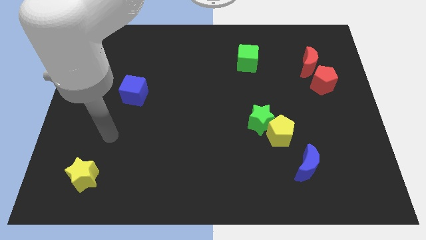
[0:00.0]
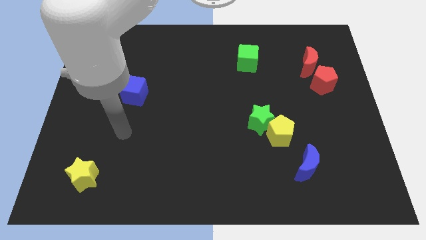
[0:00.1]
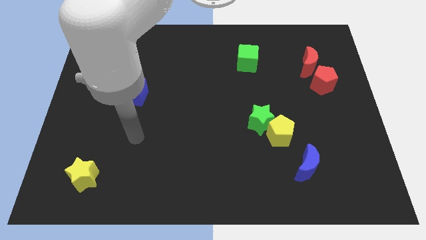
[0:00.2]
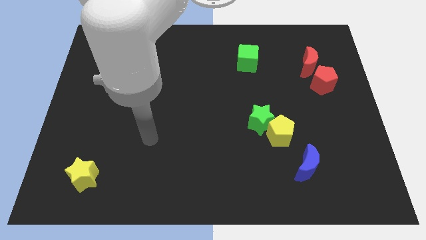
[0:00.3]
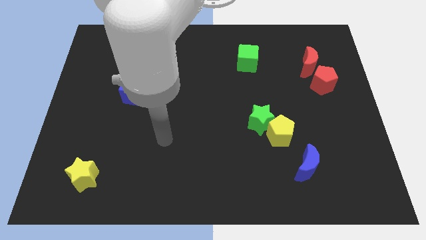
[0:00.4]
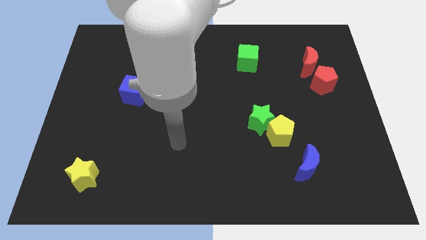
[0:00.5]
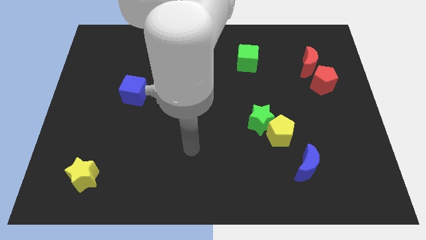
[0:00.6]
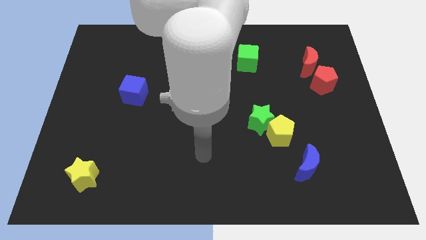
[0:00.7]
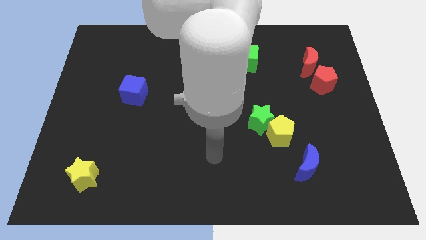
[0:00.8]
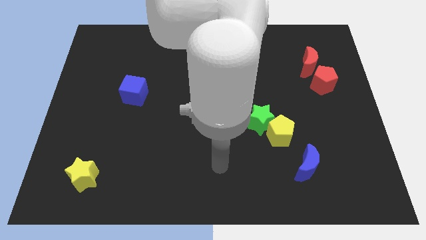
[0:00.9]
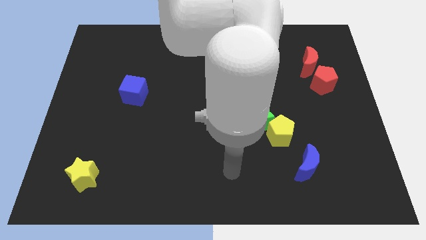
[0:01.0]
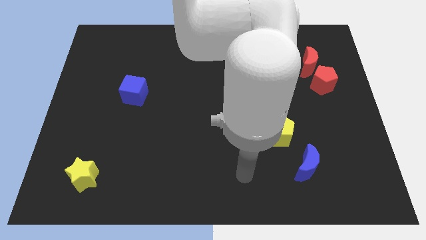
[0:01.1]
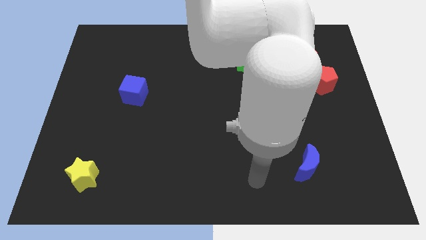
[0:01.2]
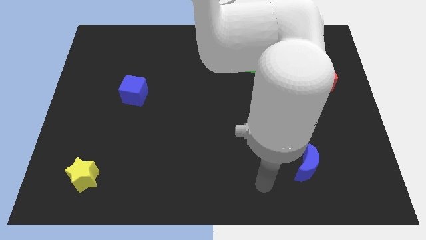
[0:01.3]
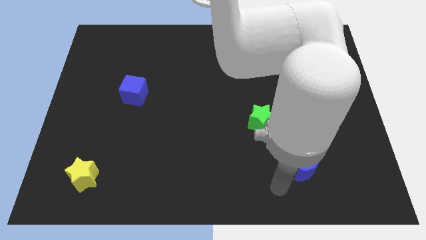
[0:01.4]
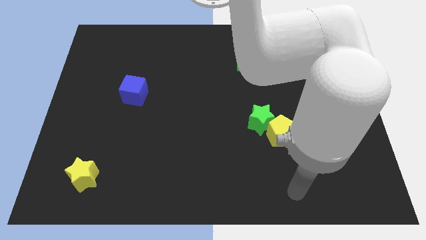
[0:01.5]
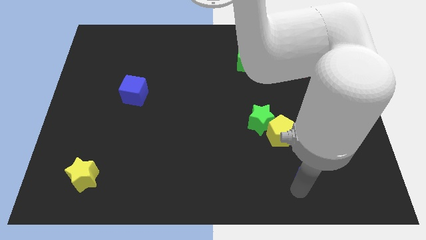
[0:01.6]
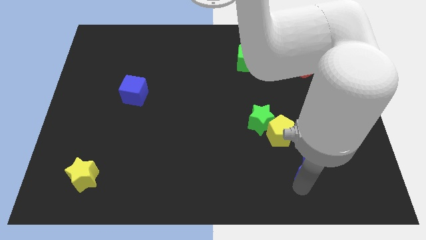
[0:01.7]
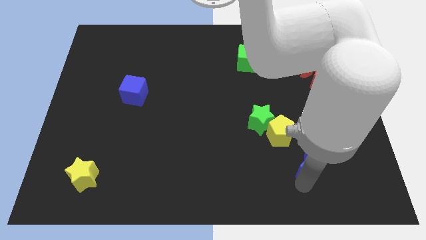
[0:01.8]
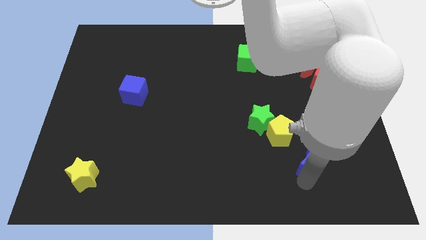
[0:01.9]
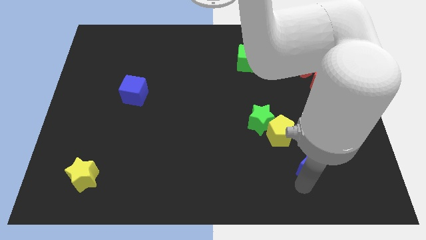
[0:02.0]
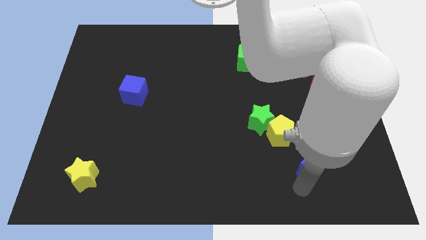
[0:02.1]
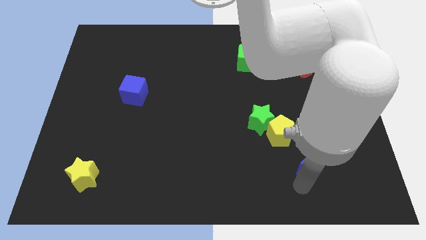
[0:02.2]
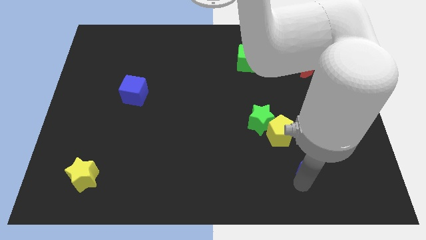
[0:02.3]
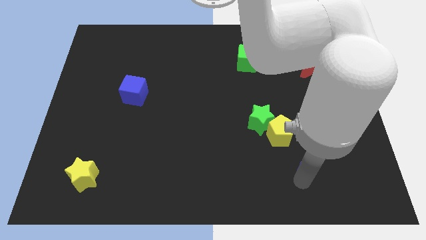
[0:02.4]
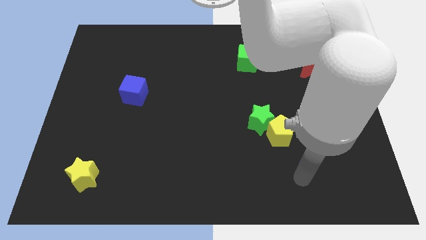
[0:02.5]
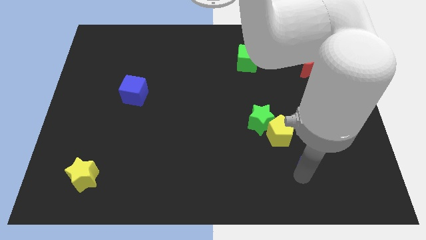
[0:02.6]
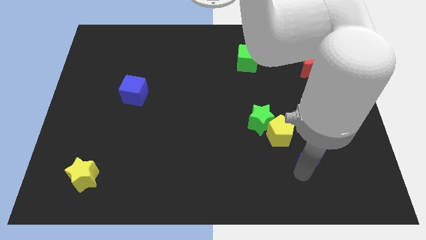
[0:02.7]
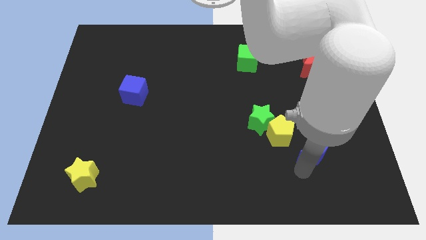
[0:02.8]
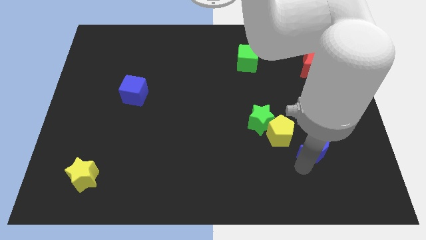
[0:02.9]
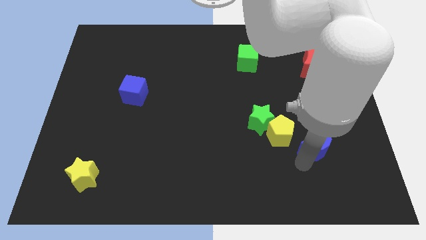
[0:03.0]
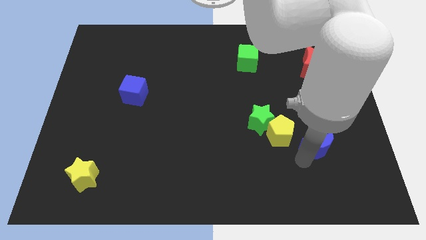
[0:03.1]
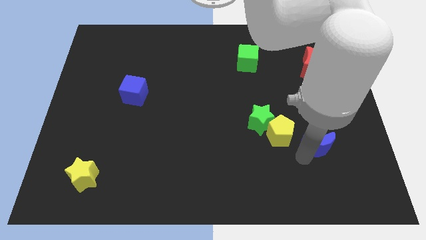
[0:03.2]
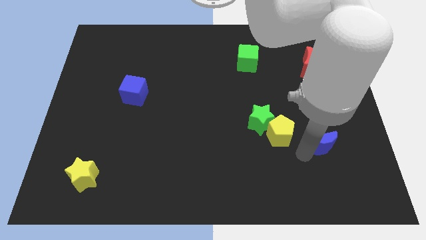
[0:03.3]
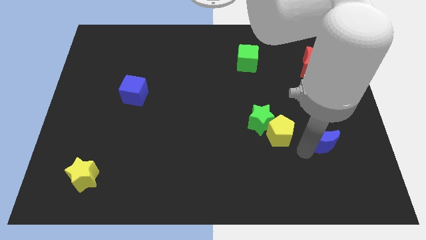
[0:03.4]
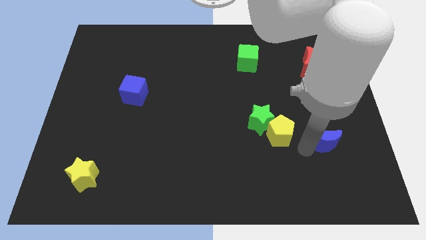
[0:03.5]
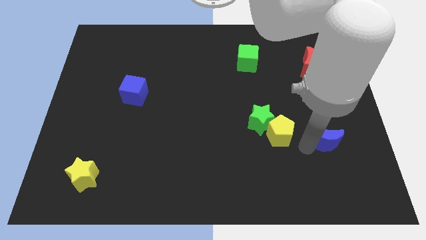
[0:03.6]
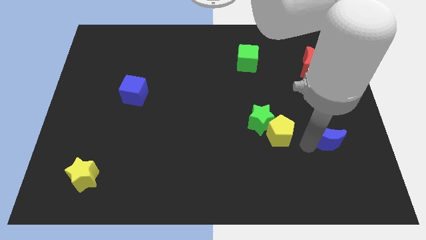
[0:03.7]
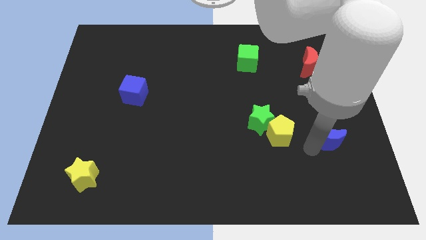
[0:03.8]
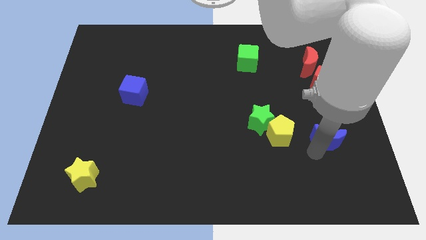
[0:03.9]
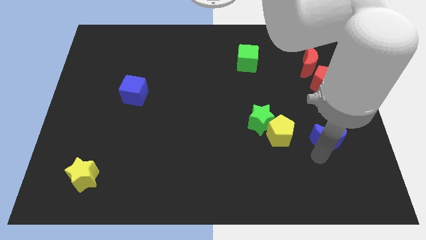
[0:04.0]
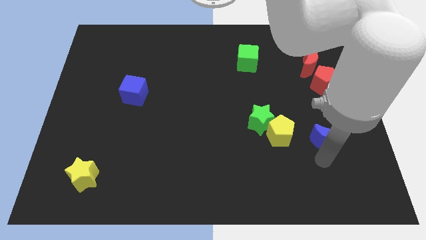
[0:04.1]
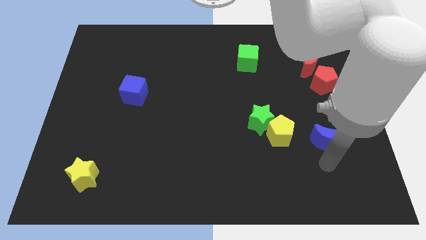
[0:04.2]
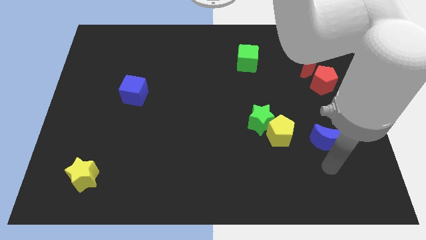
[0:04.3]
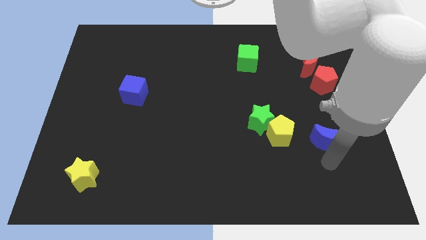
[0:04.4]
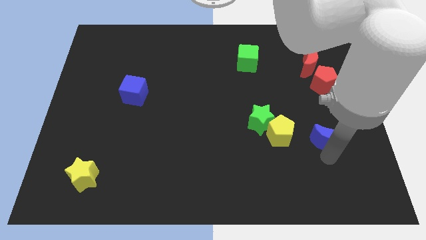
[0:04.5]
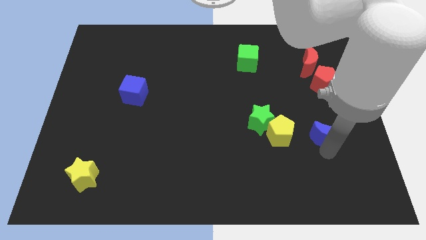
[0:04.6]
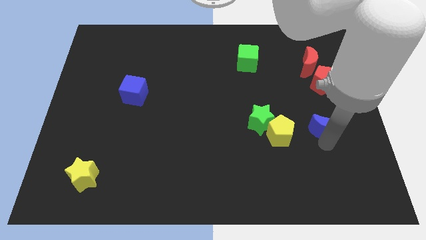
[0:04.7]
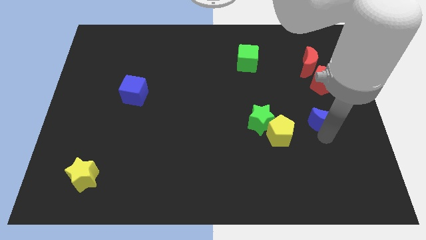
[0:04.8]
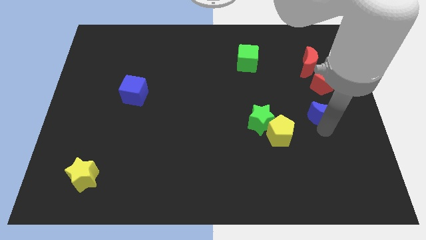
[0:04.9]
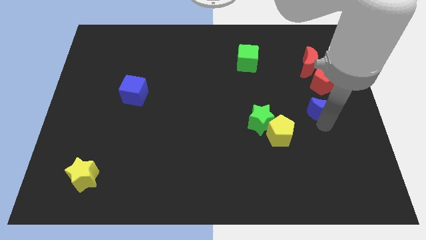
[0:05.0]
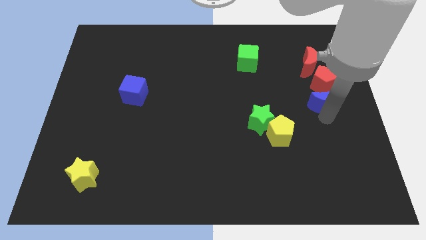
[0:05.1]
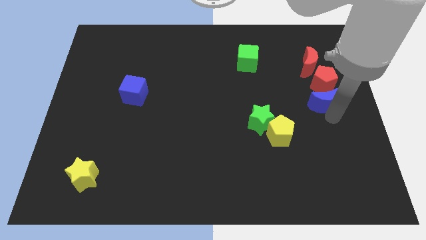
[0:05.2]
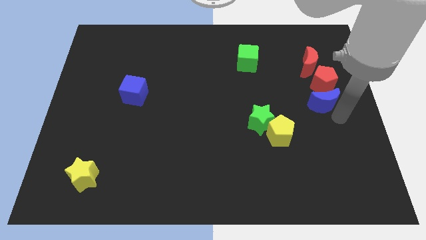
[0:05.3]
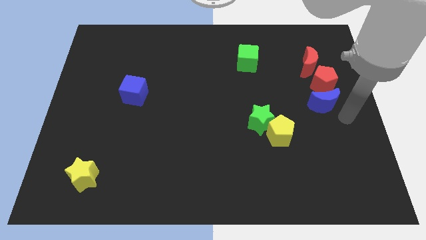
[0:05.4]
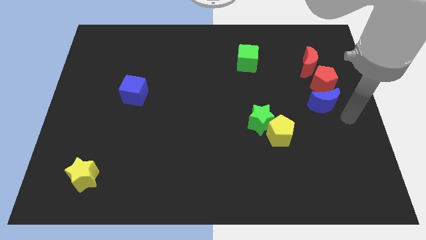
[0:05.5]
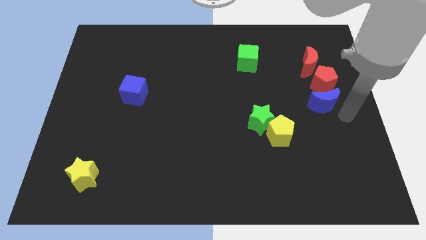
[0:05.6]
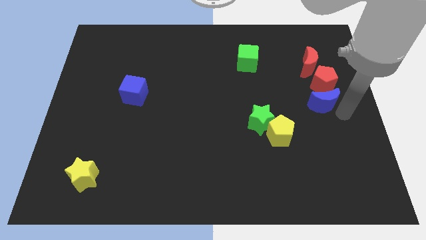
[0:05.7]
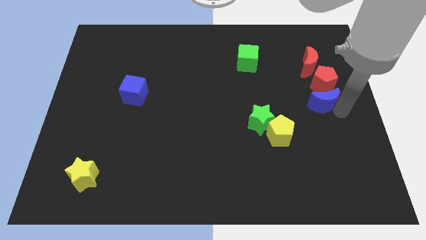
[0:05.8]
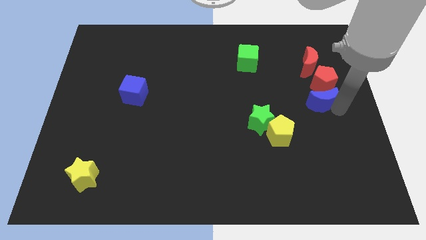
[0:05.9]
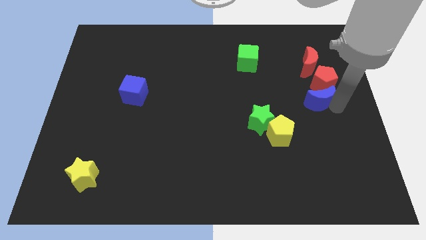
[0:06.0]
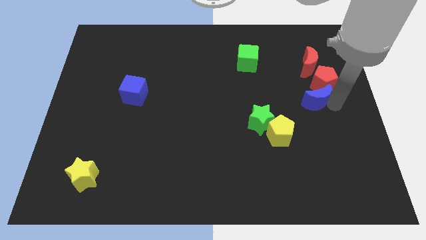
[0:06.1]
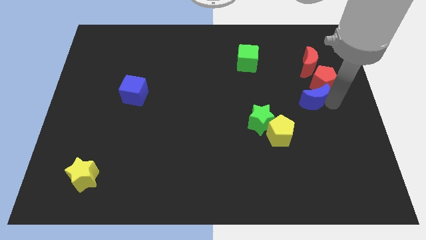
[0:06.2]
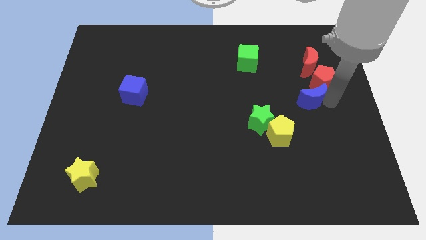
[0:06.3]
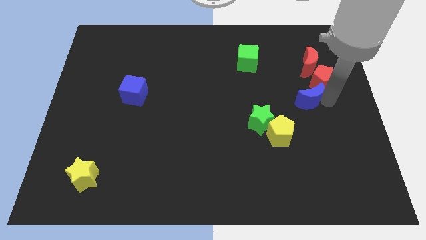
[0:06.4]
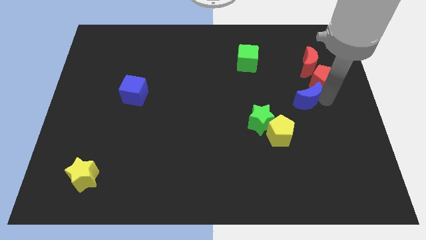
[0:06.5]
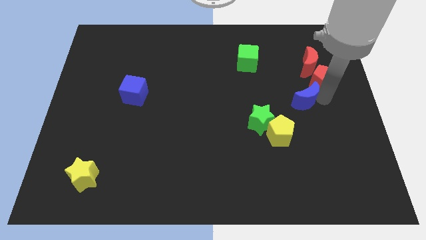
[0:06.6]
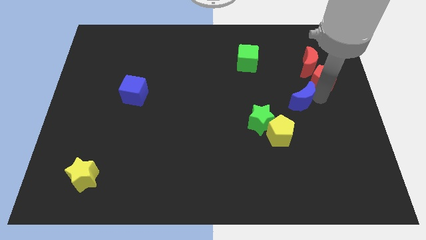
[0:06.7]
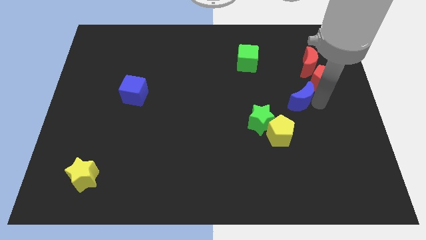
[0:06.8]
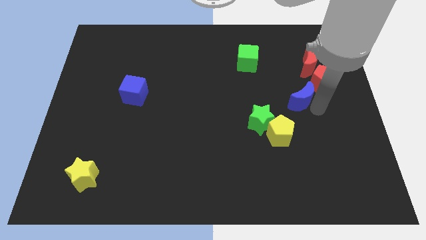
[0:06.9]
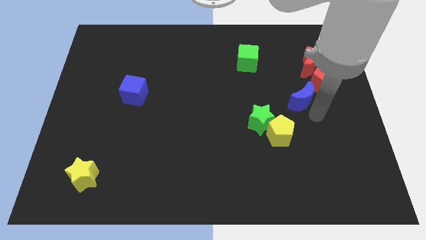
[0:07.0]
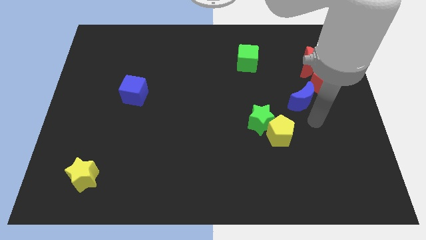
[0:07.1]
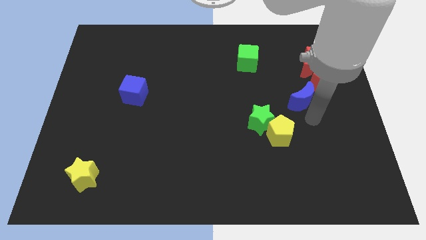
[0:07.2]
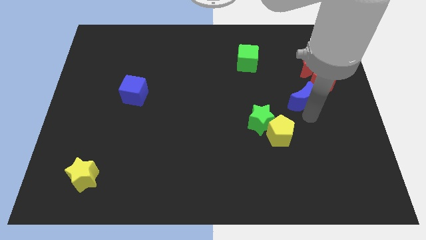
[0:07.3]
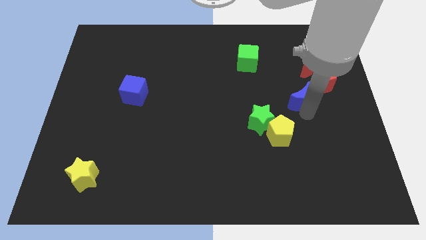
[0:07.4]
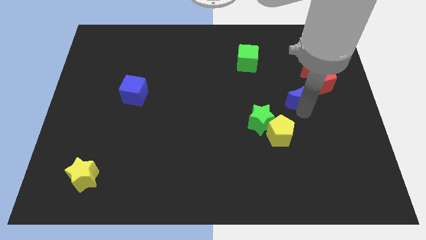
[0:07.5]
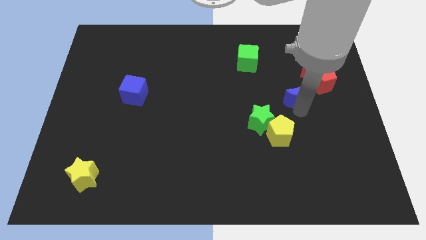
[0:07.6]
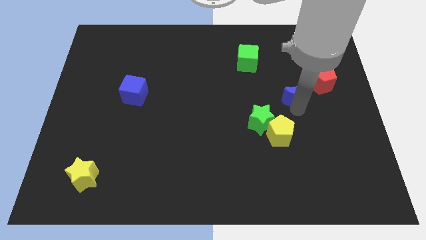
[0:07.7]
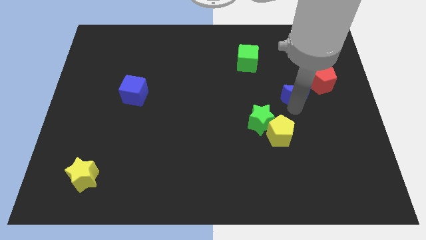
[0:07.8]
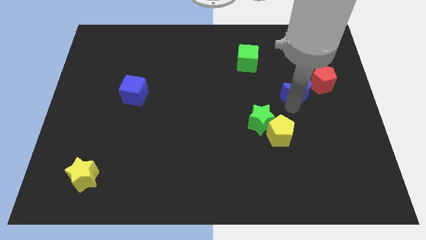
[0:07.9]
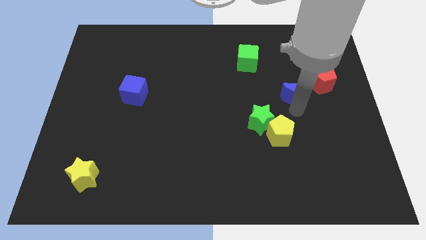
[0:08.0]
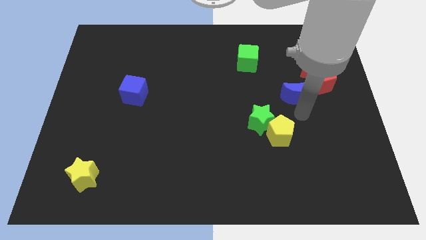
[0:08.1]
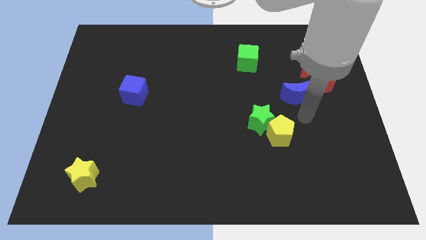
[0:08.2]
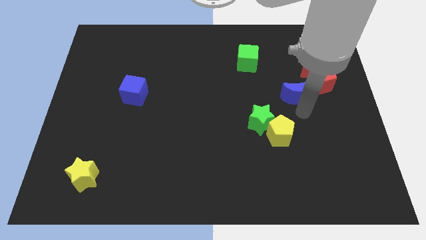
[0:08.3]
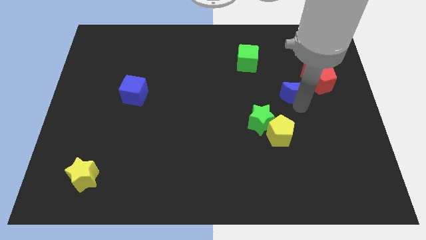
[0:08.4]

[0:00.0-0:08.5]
push the blue moon upwards
